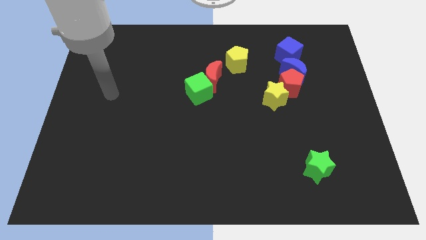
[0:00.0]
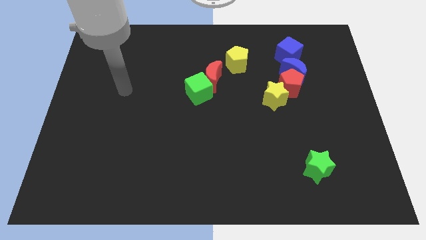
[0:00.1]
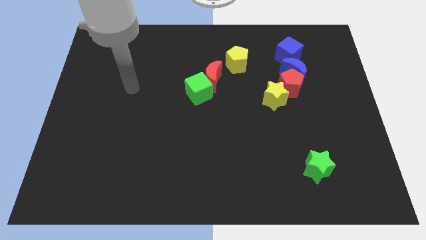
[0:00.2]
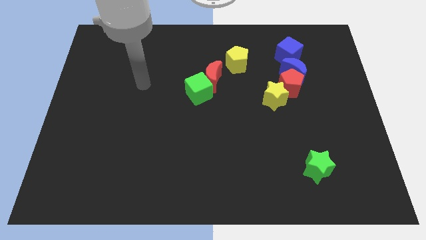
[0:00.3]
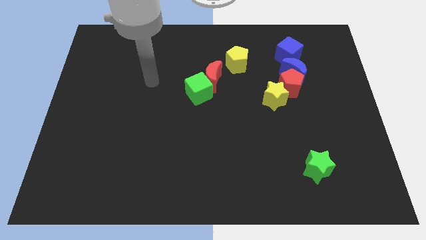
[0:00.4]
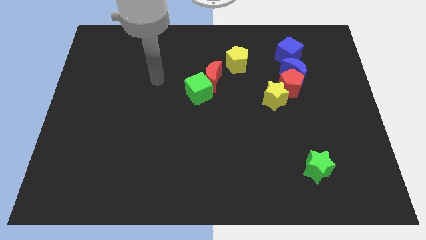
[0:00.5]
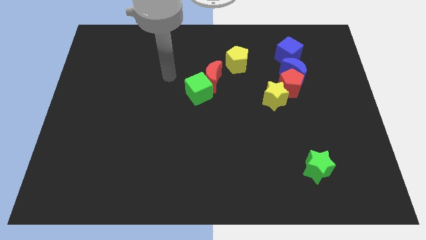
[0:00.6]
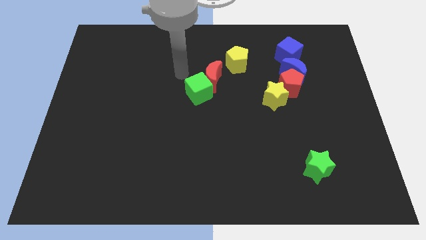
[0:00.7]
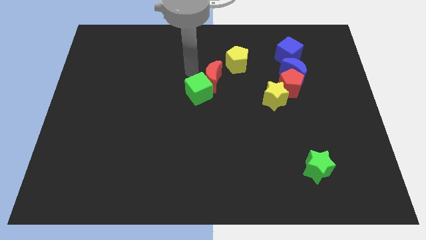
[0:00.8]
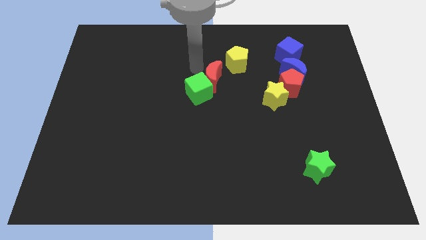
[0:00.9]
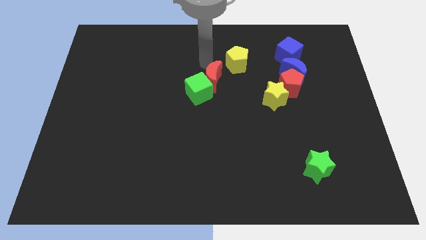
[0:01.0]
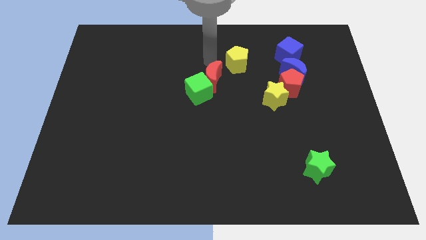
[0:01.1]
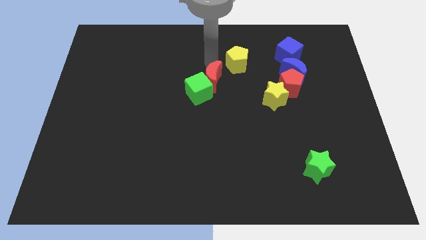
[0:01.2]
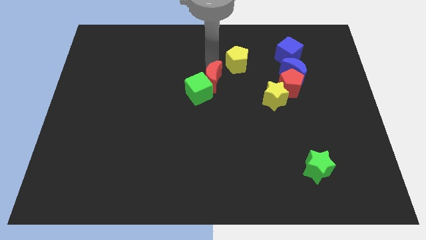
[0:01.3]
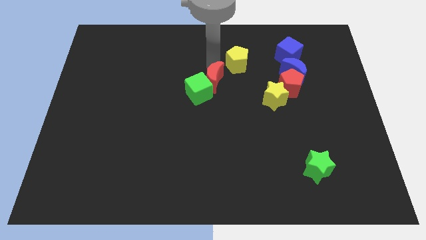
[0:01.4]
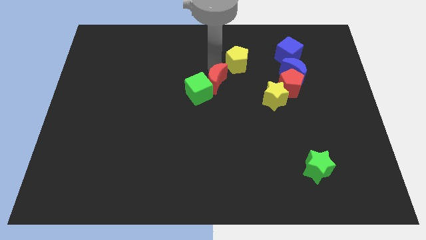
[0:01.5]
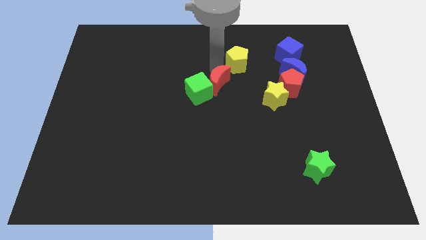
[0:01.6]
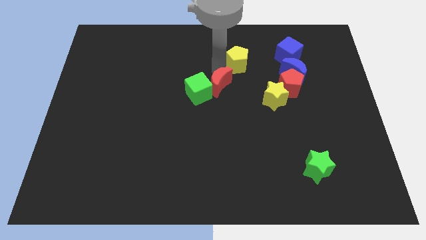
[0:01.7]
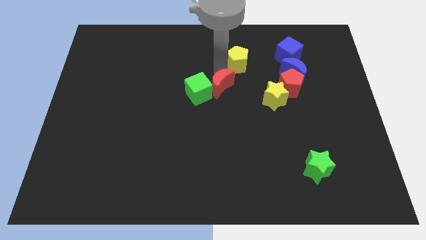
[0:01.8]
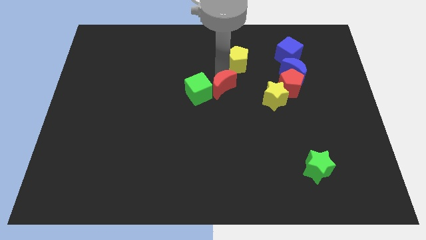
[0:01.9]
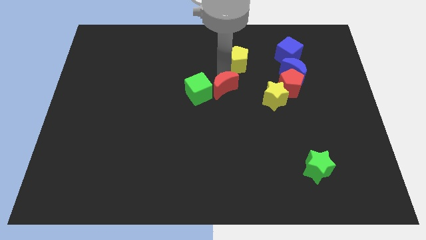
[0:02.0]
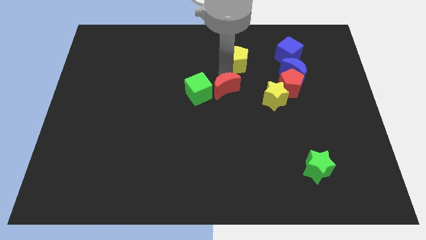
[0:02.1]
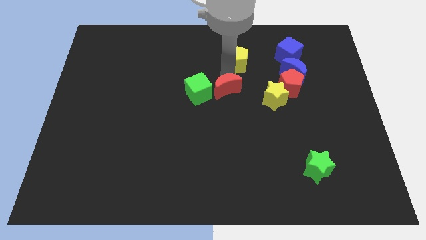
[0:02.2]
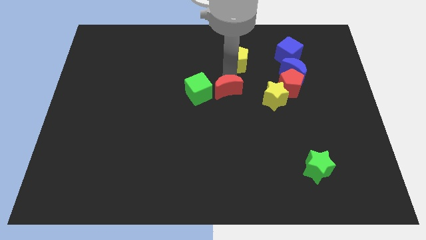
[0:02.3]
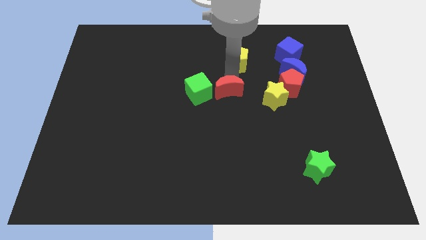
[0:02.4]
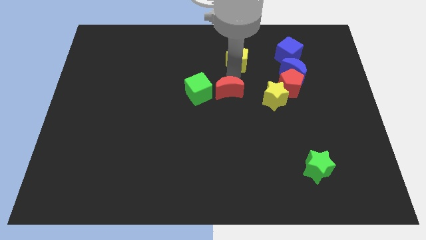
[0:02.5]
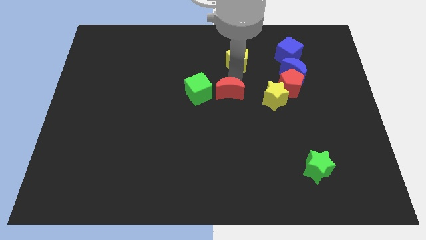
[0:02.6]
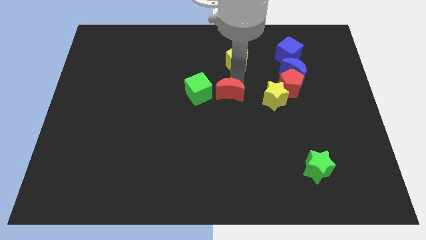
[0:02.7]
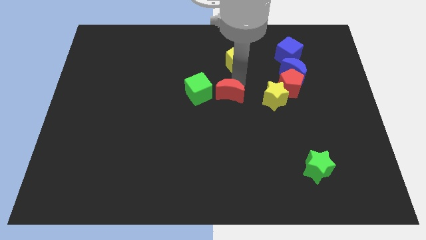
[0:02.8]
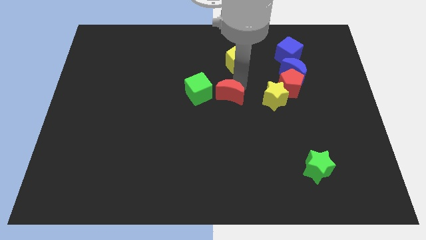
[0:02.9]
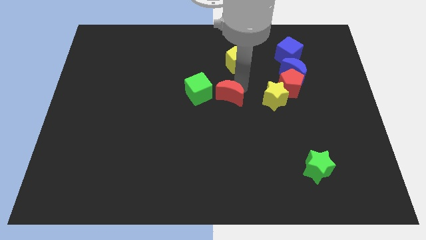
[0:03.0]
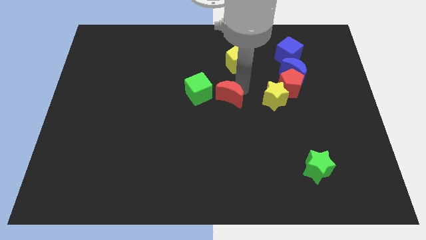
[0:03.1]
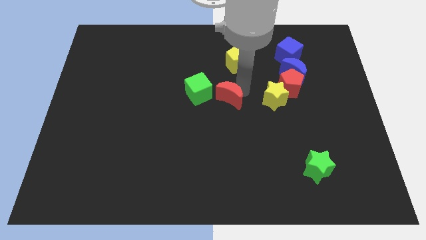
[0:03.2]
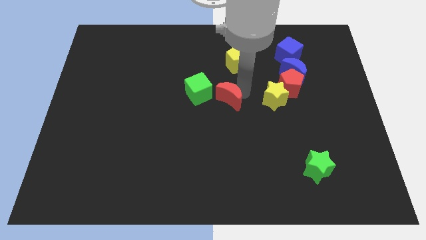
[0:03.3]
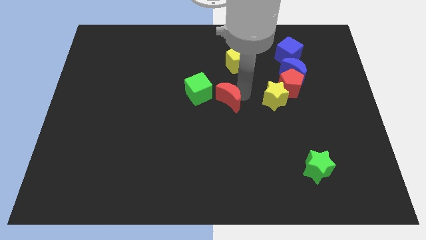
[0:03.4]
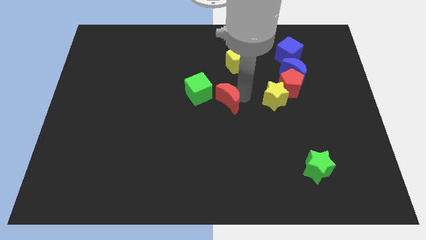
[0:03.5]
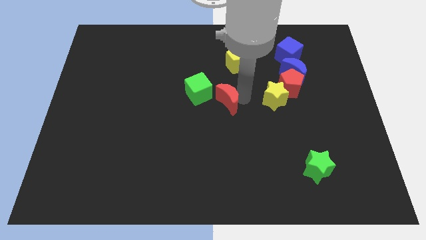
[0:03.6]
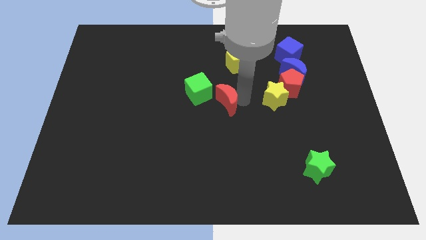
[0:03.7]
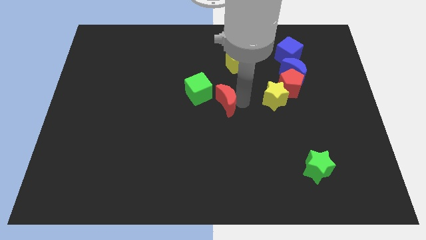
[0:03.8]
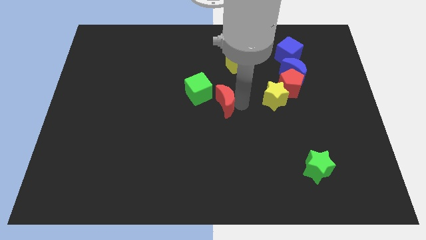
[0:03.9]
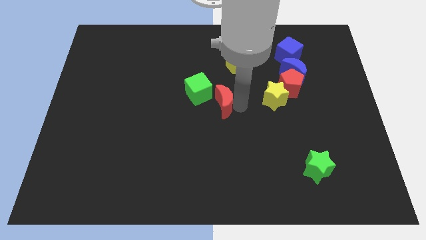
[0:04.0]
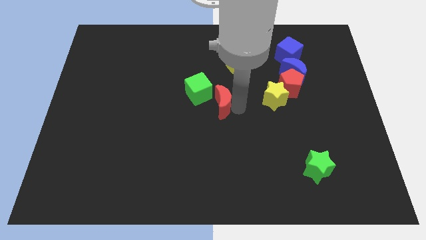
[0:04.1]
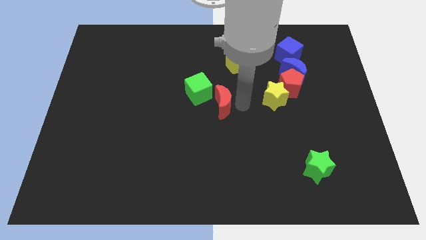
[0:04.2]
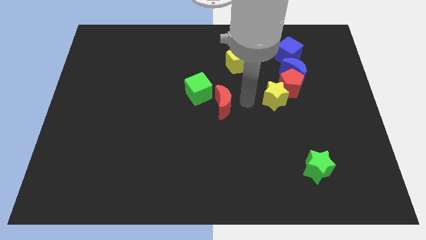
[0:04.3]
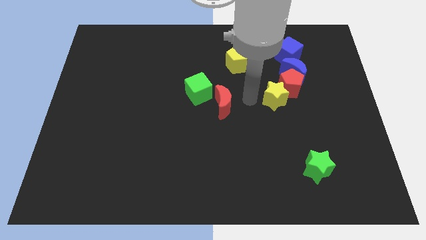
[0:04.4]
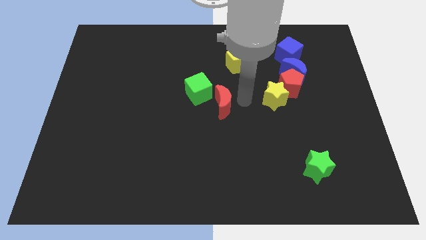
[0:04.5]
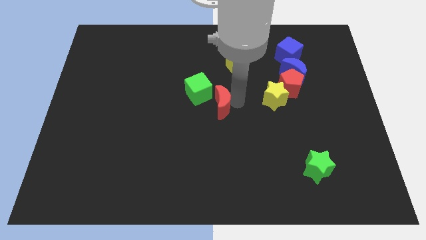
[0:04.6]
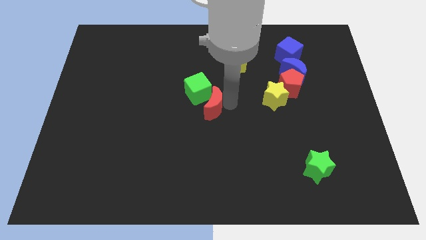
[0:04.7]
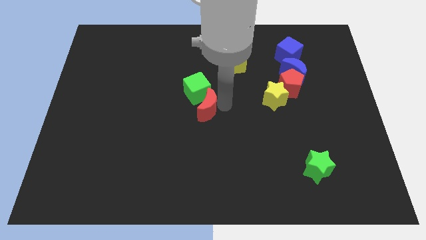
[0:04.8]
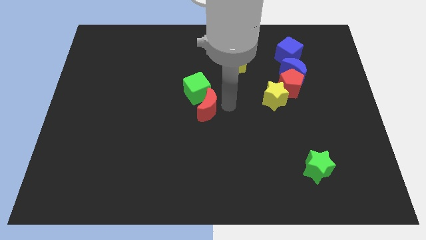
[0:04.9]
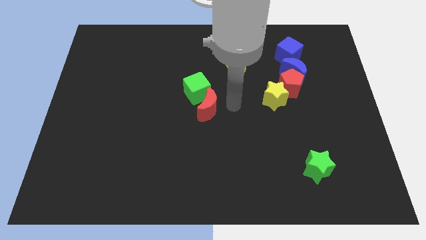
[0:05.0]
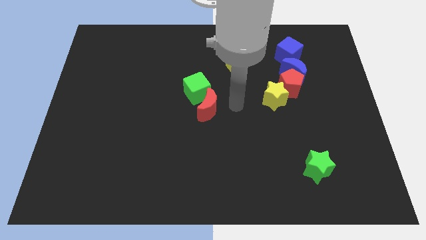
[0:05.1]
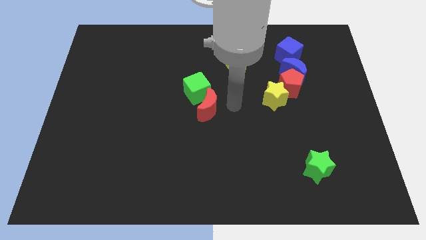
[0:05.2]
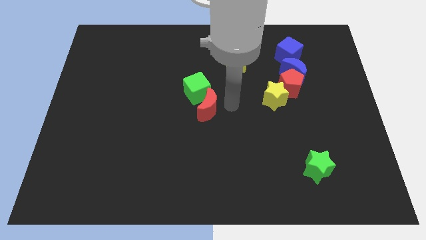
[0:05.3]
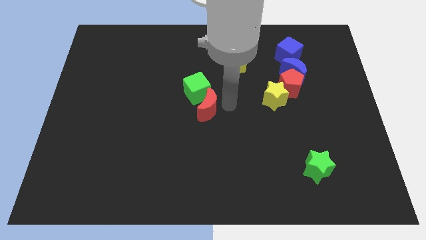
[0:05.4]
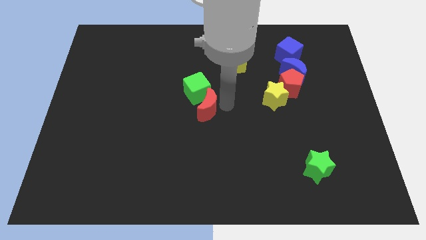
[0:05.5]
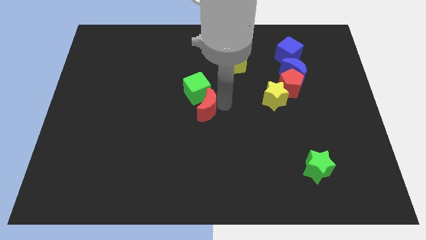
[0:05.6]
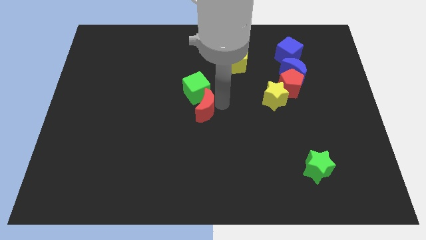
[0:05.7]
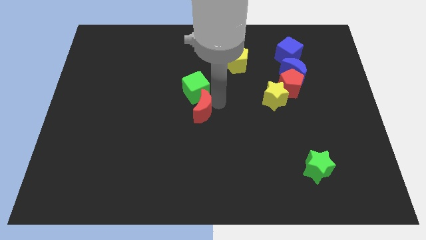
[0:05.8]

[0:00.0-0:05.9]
move the red moon slightly downwards and to the left

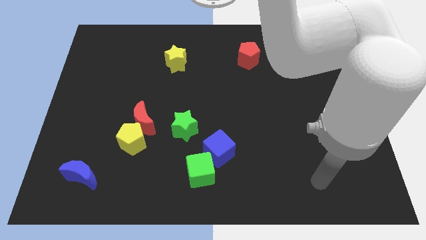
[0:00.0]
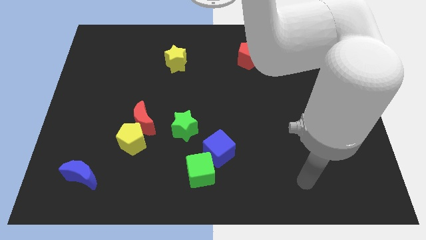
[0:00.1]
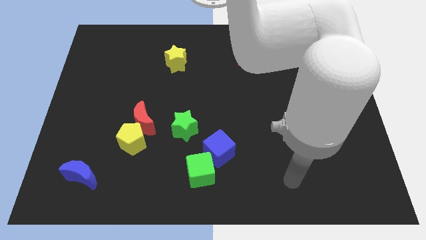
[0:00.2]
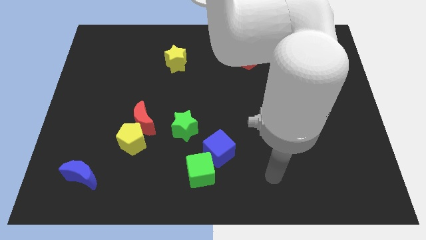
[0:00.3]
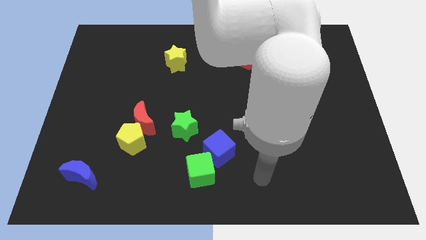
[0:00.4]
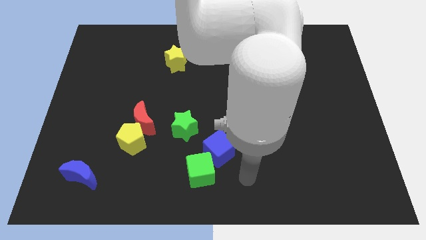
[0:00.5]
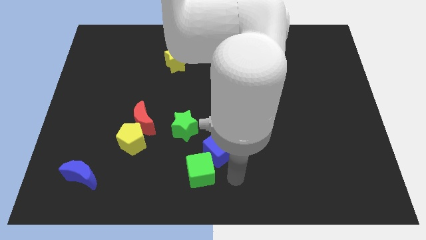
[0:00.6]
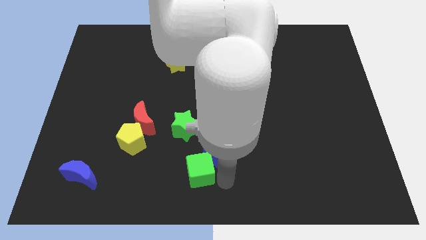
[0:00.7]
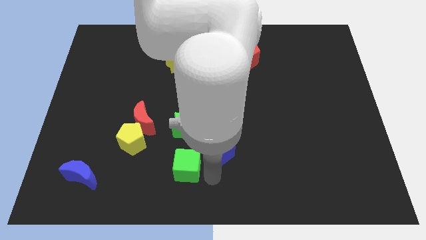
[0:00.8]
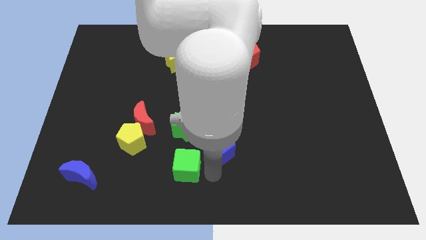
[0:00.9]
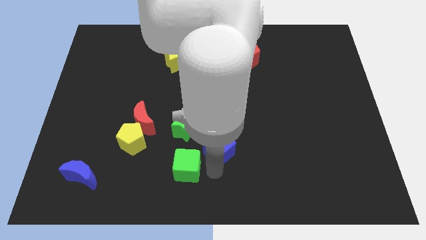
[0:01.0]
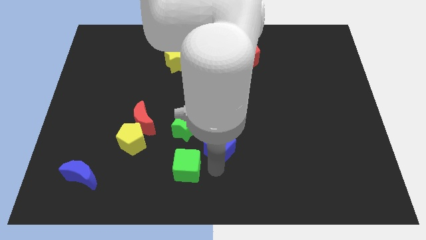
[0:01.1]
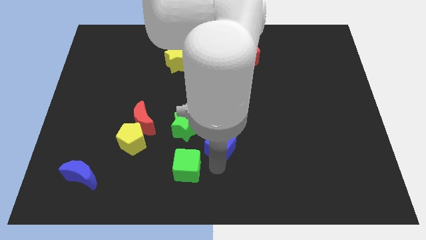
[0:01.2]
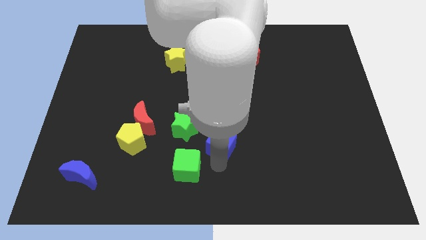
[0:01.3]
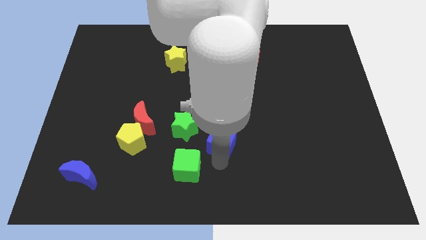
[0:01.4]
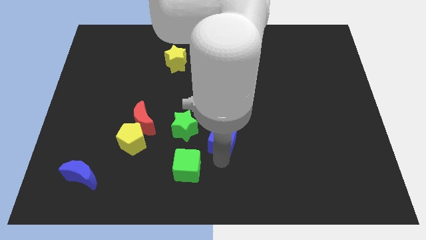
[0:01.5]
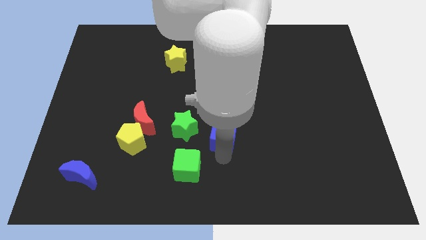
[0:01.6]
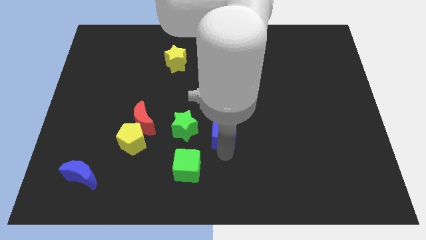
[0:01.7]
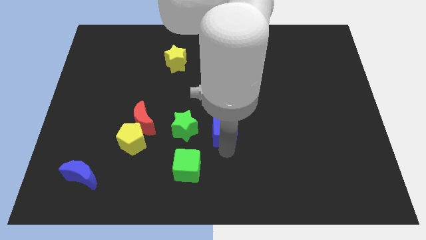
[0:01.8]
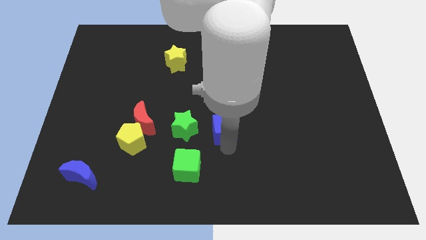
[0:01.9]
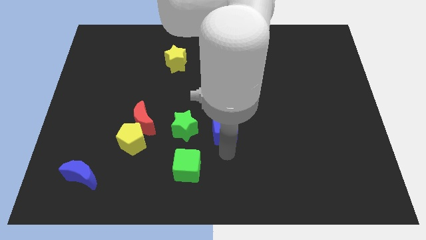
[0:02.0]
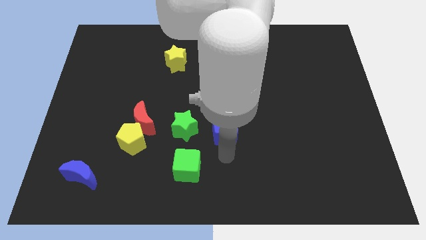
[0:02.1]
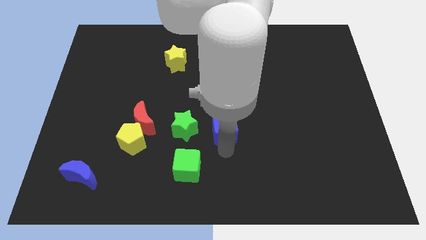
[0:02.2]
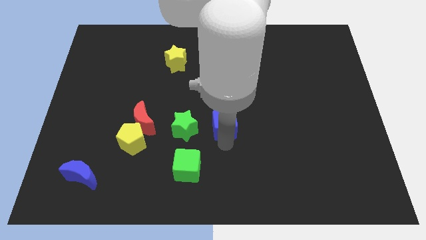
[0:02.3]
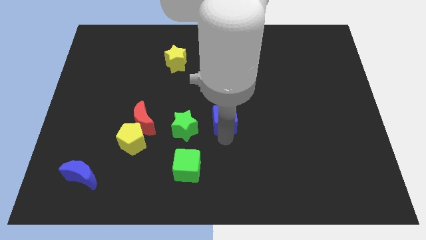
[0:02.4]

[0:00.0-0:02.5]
slightly move the blue cube upwards
